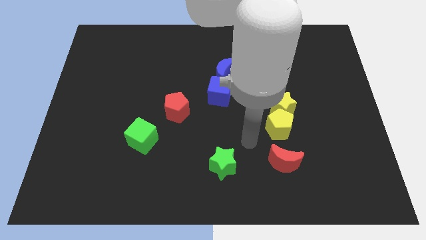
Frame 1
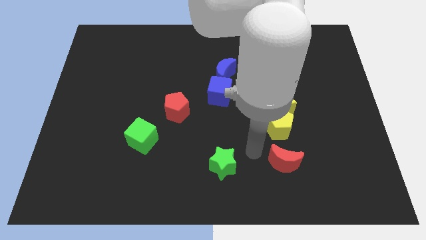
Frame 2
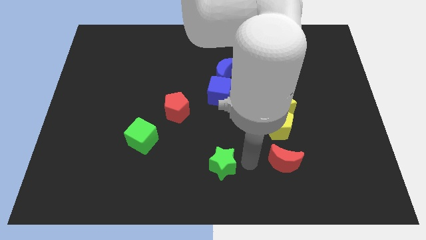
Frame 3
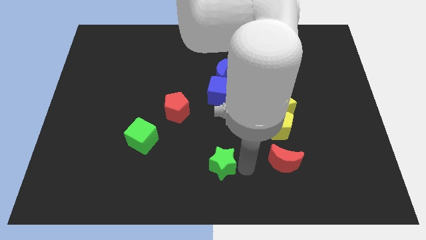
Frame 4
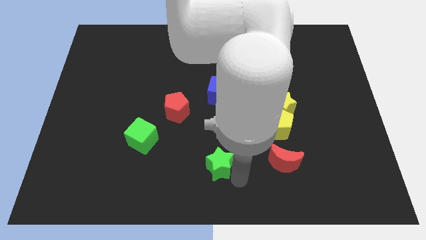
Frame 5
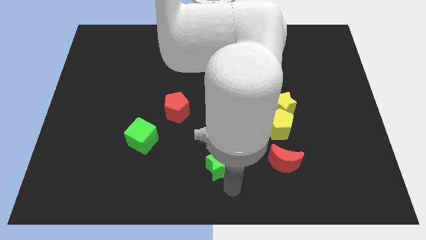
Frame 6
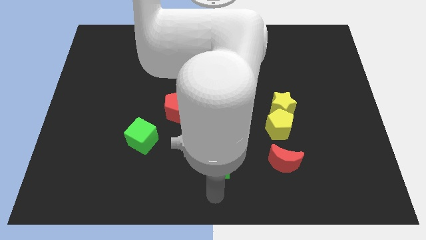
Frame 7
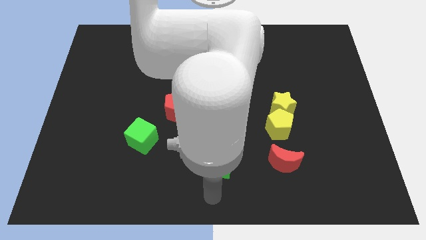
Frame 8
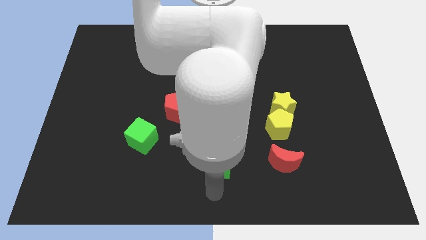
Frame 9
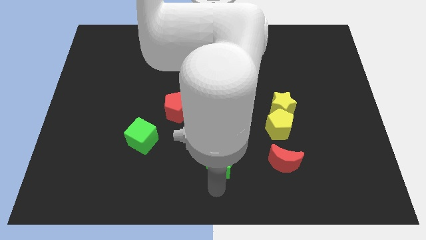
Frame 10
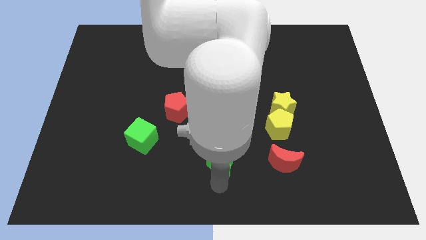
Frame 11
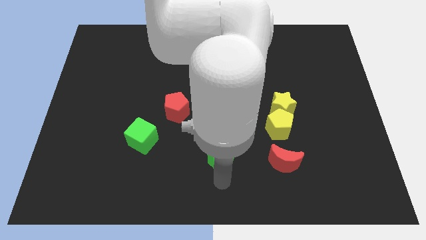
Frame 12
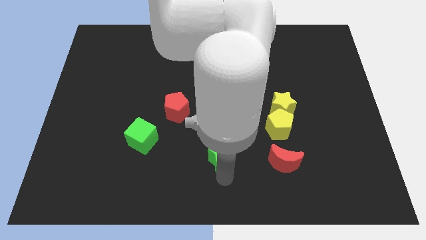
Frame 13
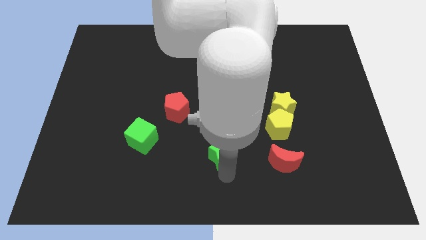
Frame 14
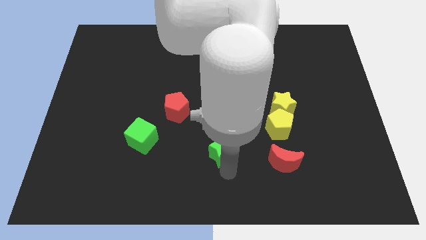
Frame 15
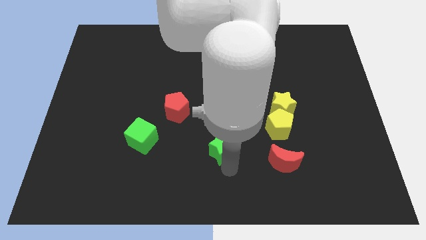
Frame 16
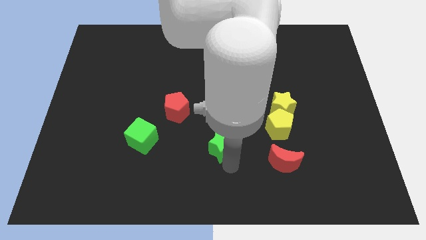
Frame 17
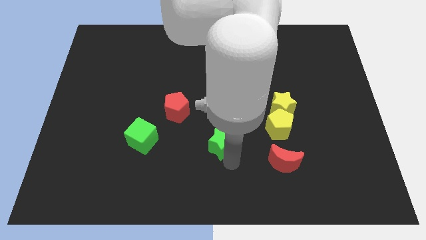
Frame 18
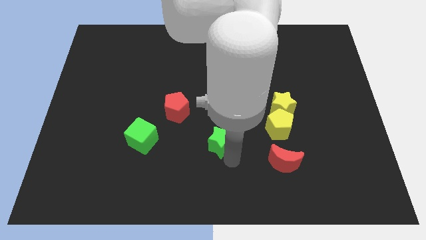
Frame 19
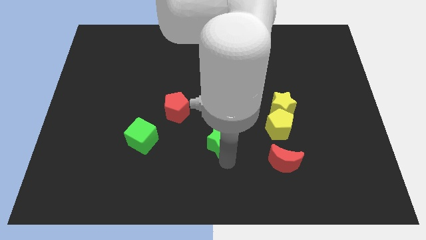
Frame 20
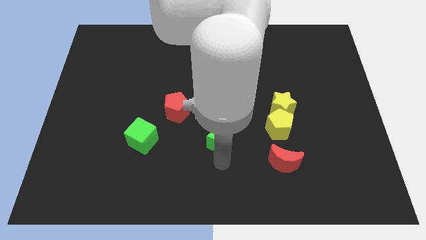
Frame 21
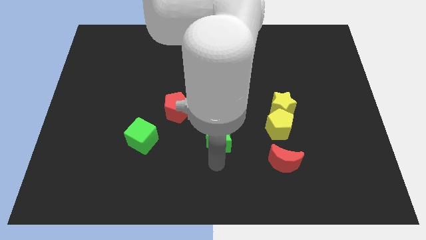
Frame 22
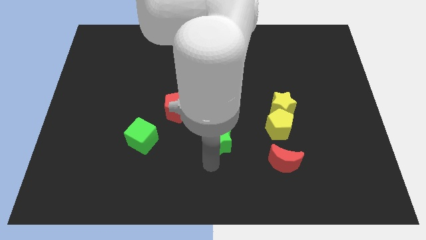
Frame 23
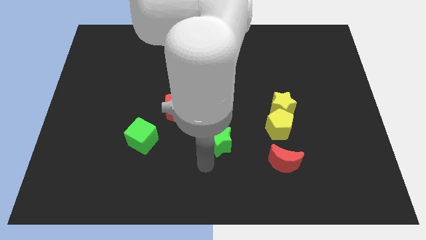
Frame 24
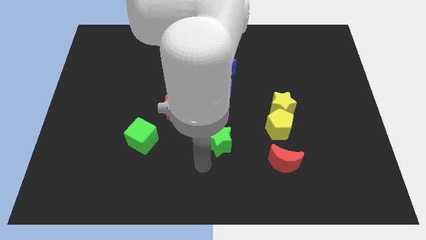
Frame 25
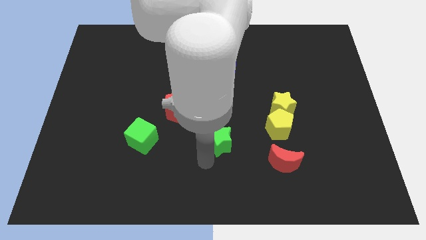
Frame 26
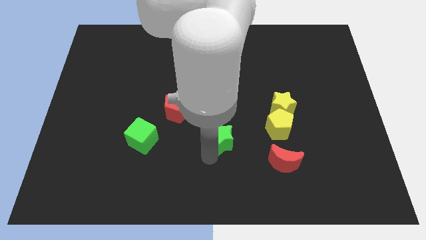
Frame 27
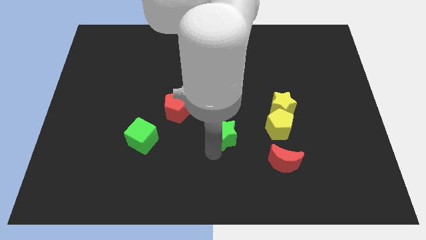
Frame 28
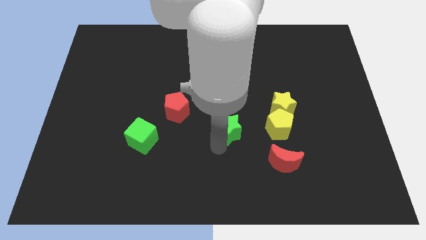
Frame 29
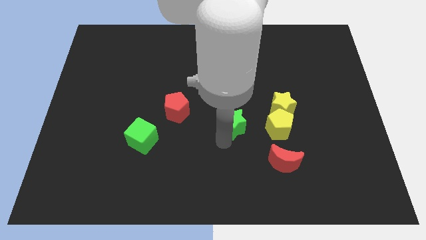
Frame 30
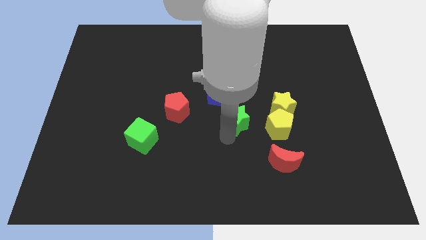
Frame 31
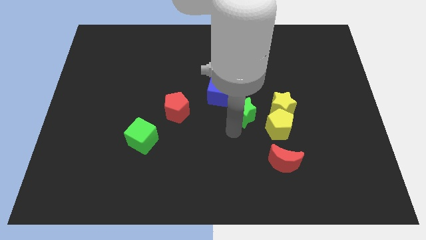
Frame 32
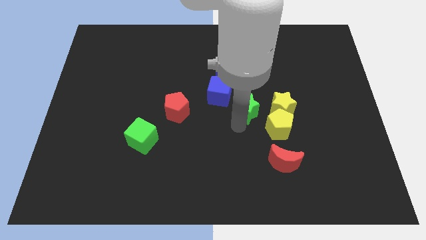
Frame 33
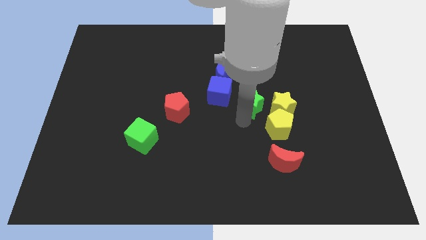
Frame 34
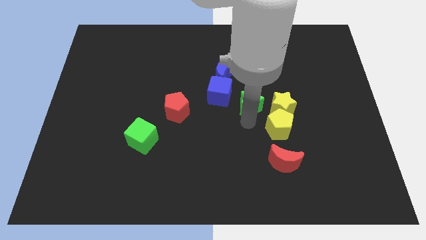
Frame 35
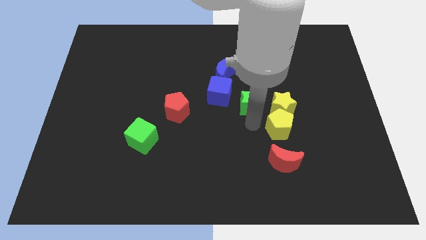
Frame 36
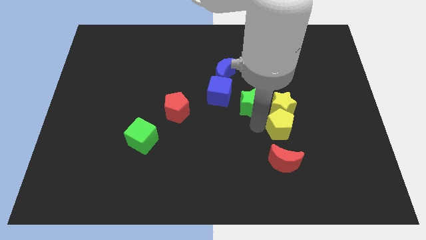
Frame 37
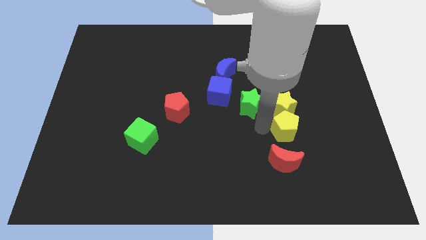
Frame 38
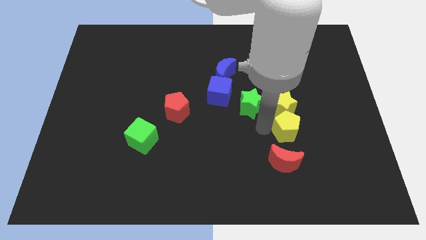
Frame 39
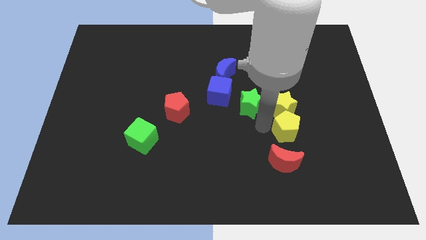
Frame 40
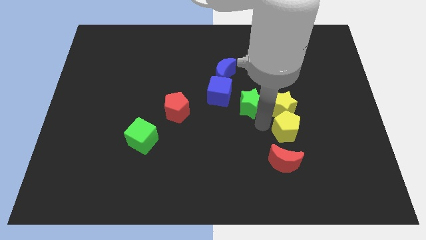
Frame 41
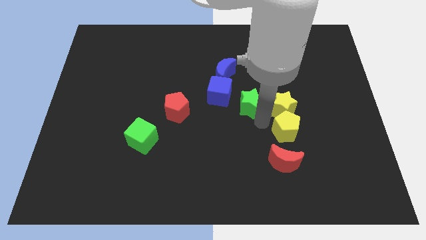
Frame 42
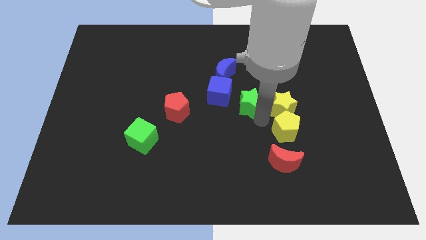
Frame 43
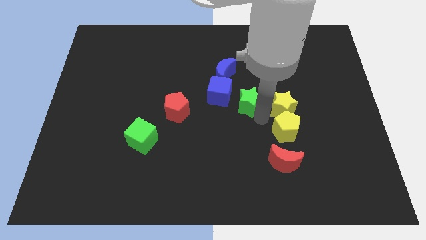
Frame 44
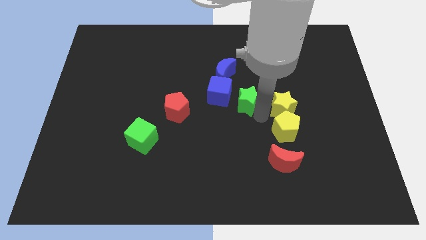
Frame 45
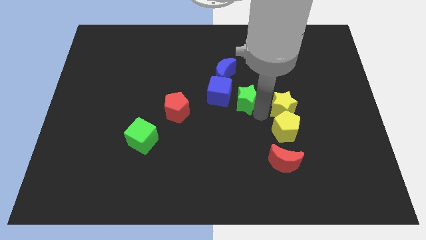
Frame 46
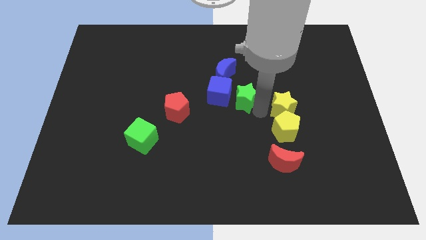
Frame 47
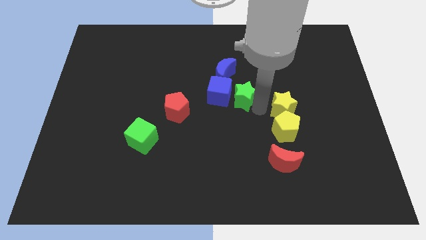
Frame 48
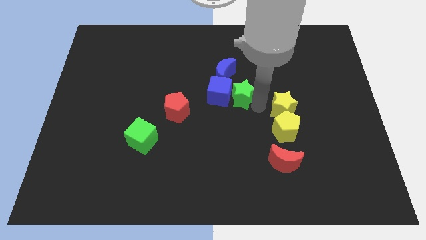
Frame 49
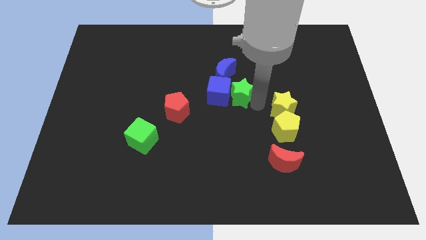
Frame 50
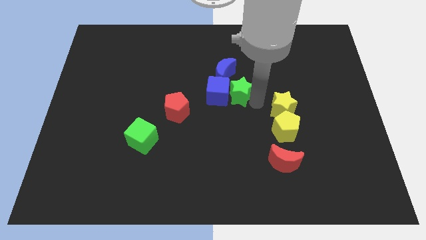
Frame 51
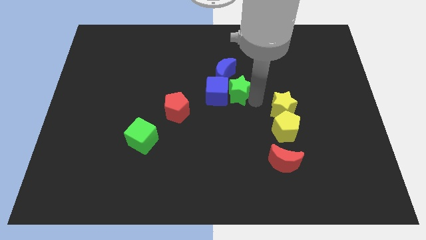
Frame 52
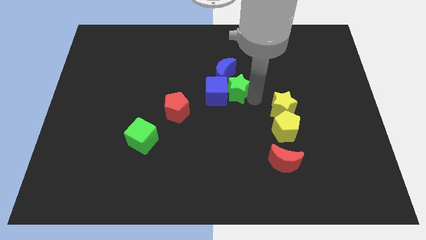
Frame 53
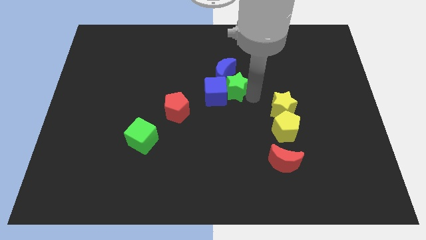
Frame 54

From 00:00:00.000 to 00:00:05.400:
put the green star close to the blue moon

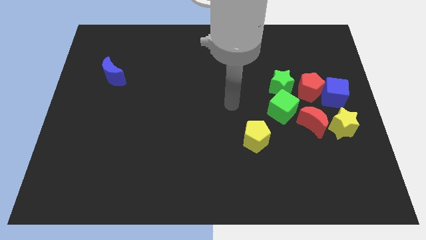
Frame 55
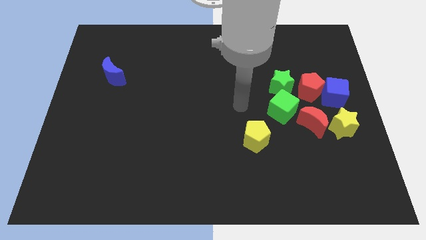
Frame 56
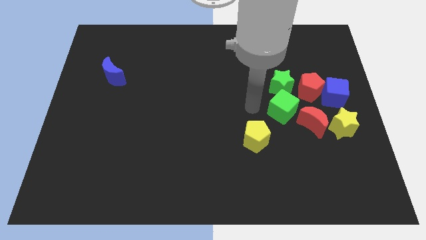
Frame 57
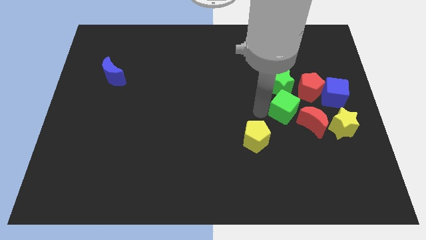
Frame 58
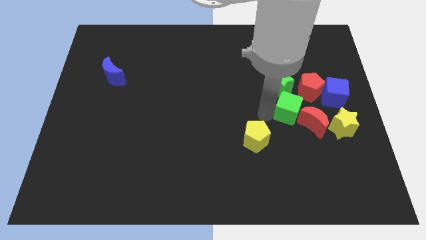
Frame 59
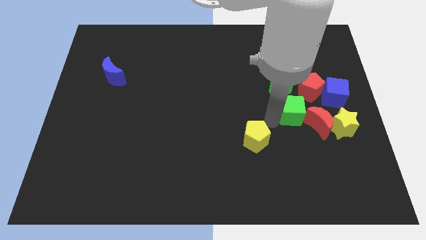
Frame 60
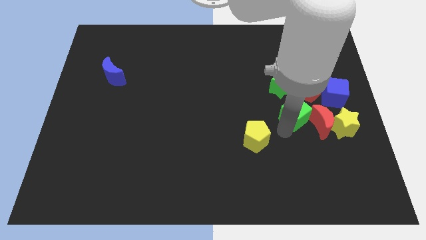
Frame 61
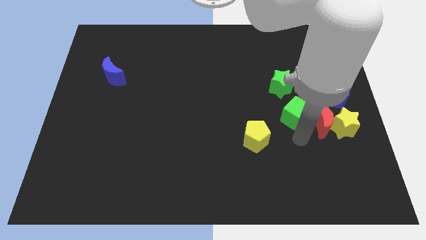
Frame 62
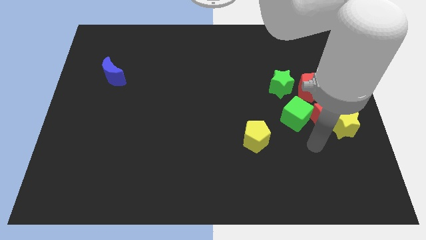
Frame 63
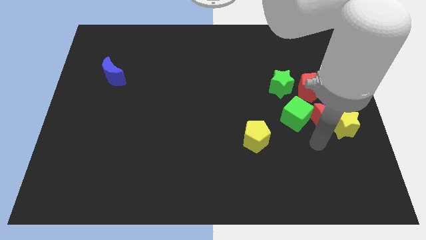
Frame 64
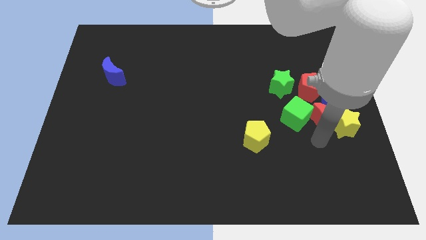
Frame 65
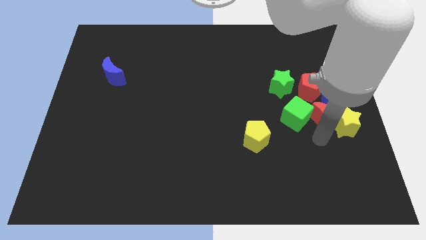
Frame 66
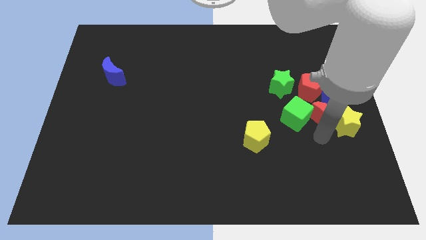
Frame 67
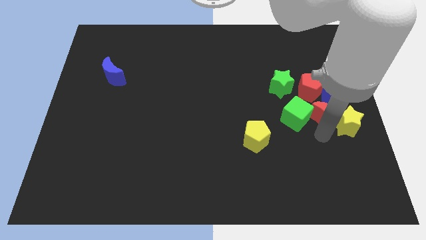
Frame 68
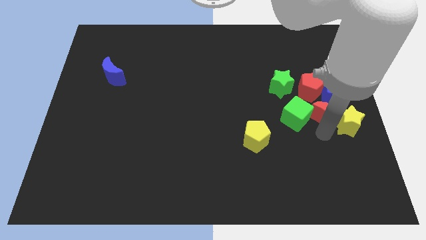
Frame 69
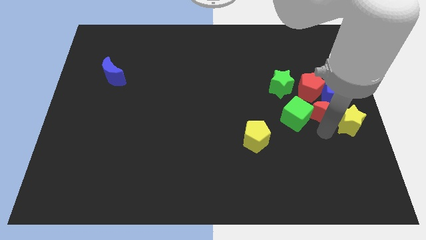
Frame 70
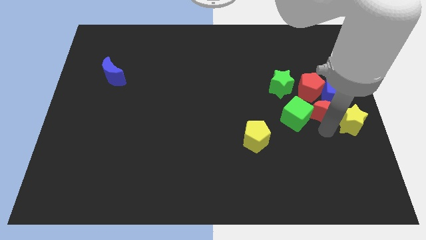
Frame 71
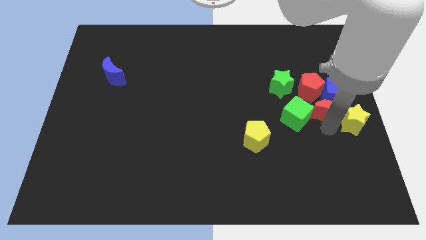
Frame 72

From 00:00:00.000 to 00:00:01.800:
slide the red moon towards the blue cube

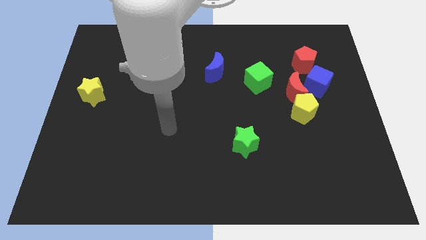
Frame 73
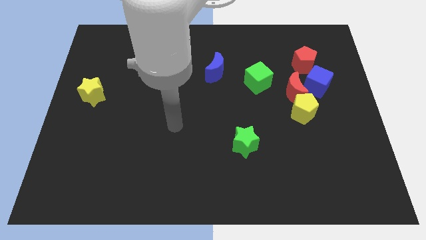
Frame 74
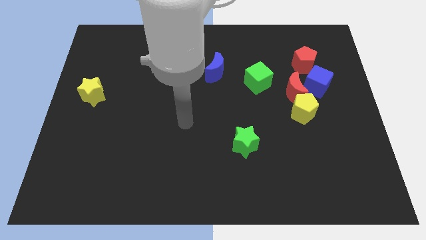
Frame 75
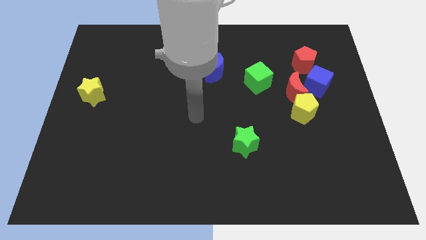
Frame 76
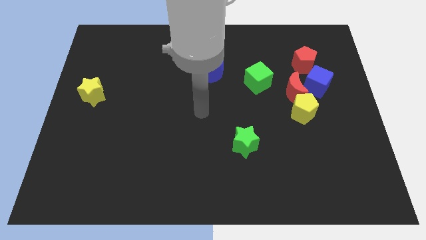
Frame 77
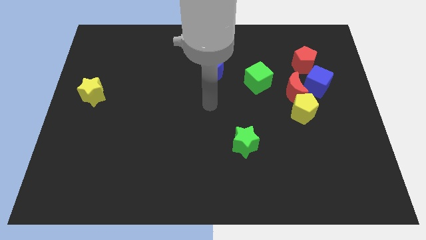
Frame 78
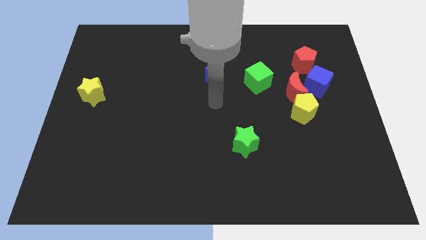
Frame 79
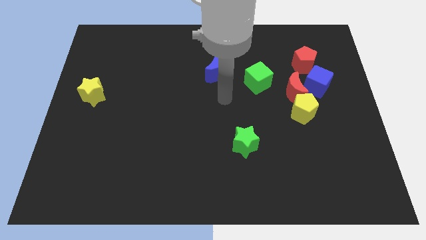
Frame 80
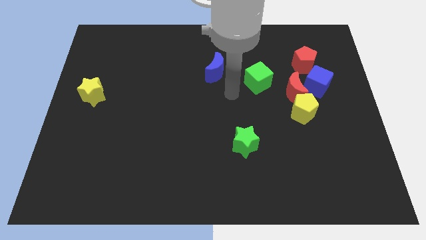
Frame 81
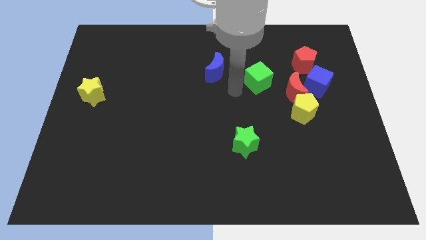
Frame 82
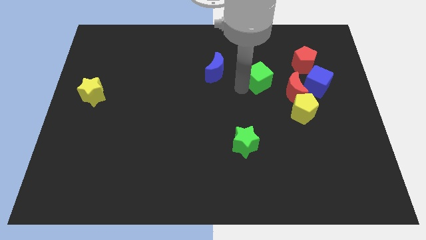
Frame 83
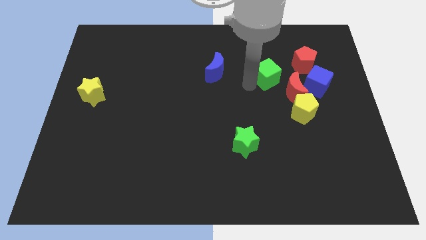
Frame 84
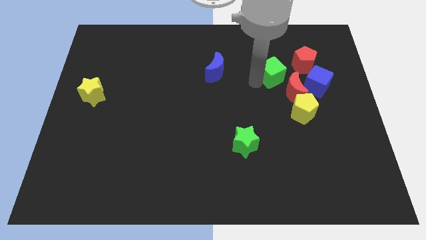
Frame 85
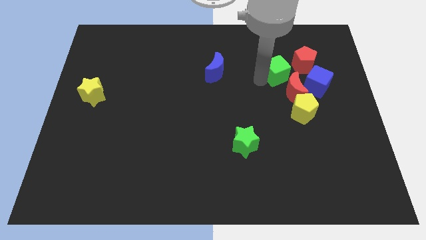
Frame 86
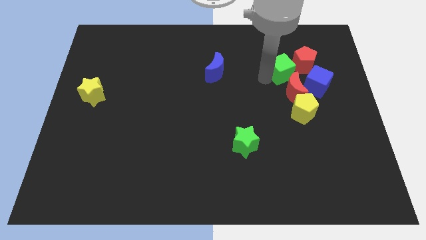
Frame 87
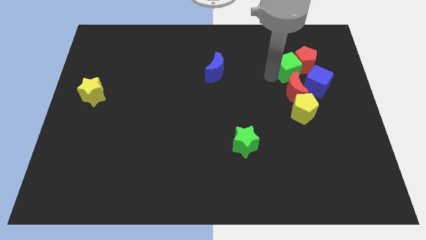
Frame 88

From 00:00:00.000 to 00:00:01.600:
put the green cube towards the red pentagon
